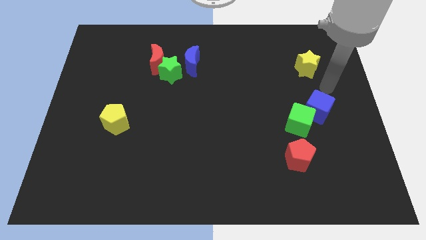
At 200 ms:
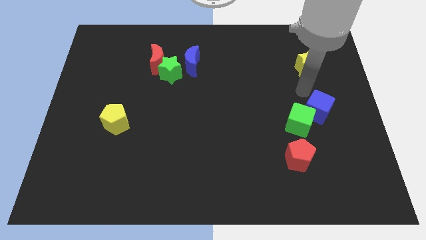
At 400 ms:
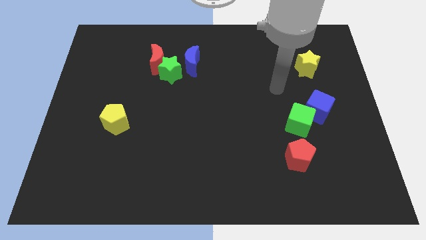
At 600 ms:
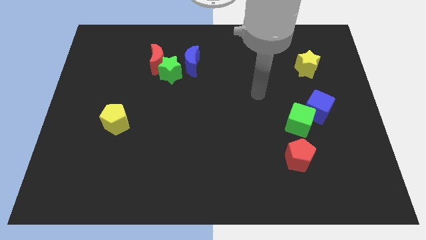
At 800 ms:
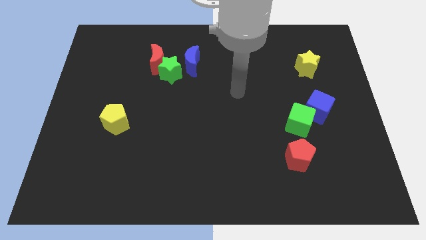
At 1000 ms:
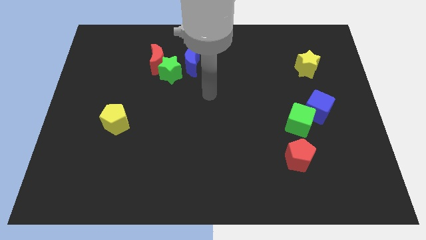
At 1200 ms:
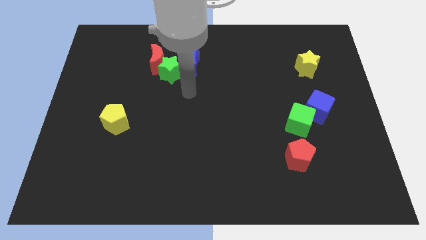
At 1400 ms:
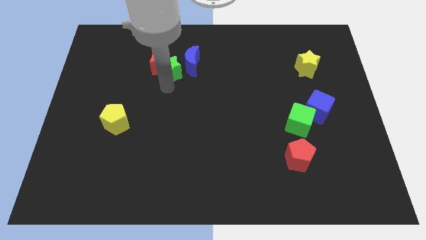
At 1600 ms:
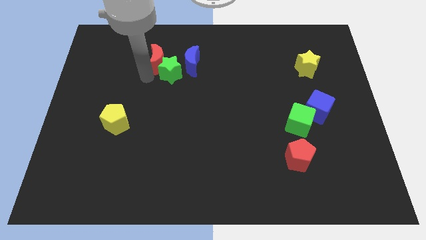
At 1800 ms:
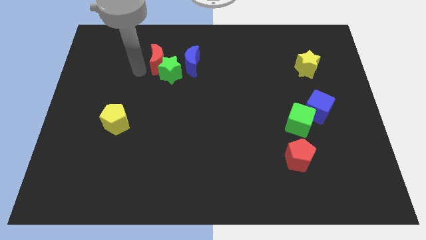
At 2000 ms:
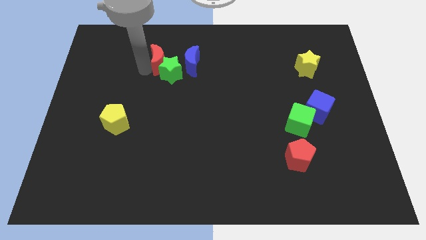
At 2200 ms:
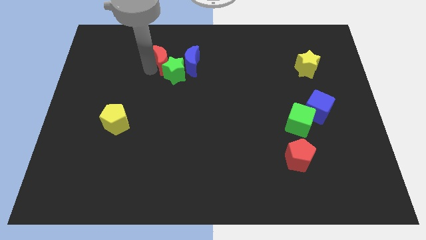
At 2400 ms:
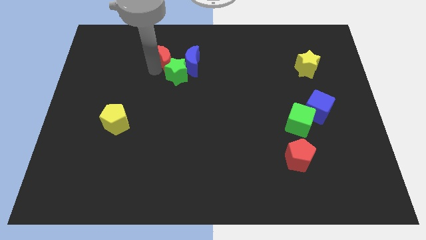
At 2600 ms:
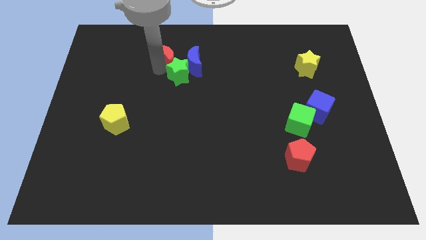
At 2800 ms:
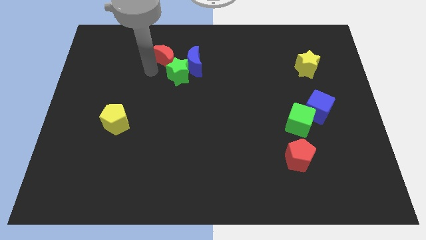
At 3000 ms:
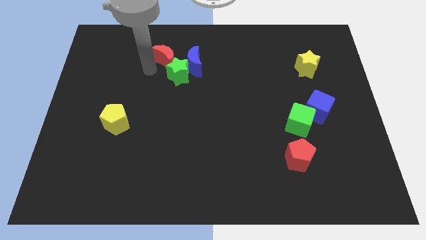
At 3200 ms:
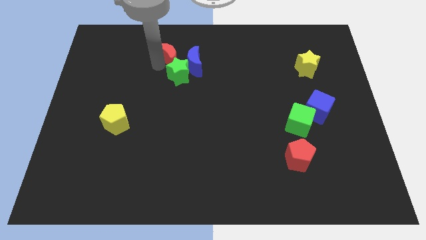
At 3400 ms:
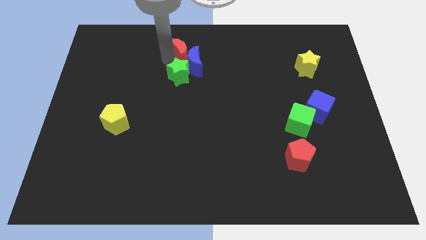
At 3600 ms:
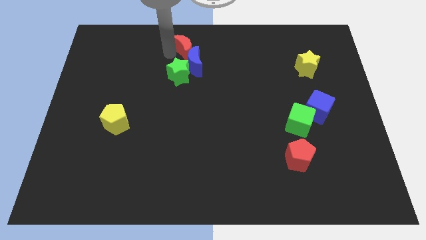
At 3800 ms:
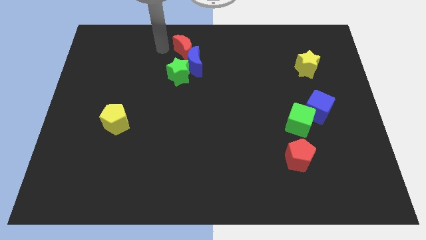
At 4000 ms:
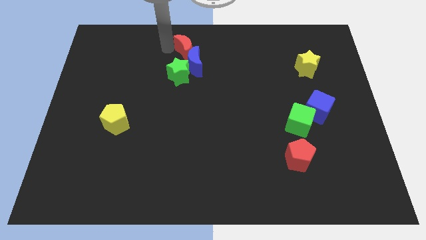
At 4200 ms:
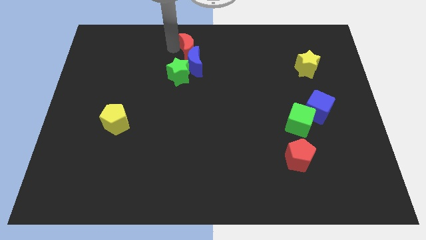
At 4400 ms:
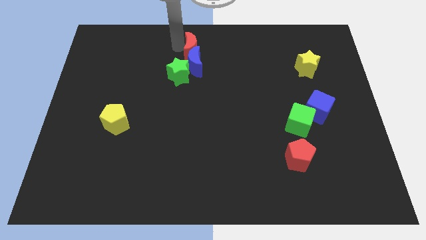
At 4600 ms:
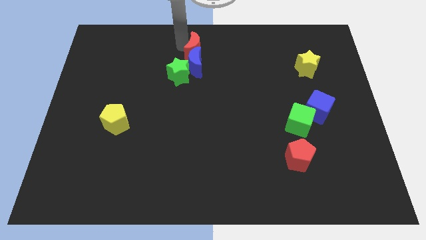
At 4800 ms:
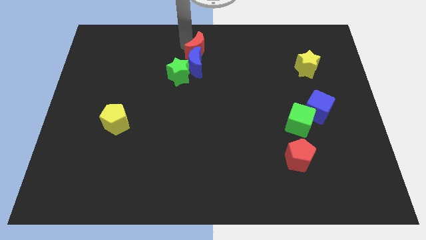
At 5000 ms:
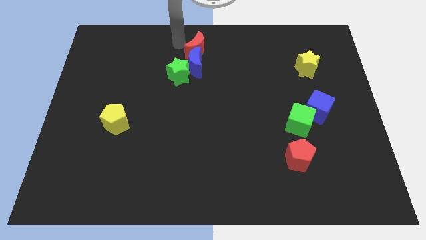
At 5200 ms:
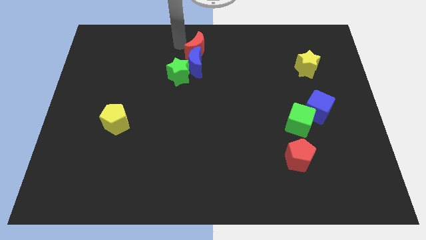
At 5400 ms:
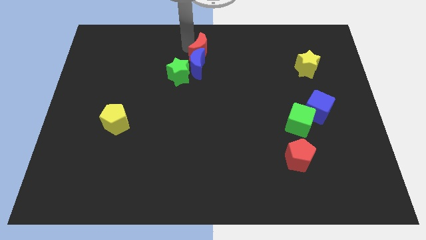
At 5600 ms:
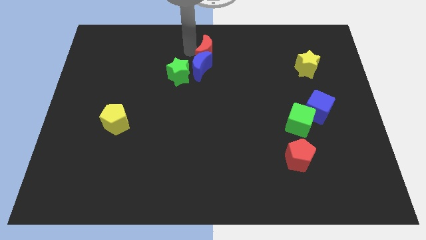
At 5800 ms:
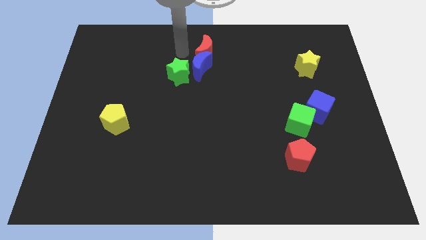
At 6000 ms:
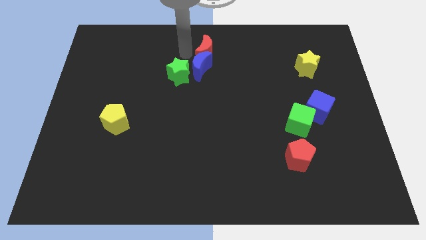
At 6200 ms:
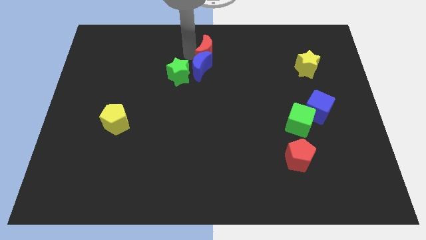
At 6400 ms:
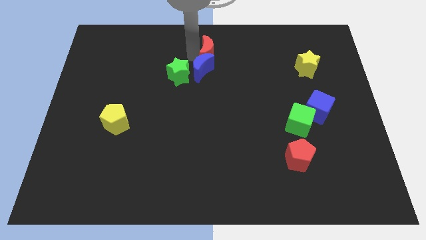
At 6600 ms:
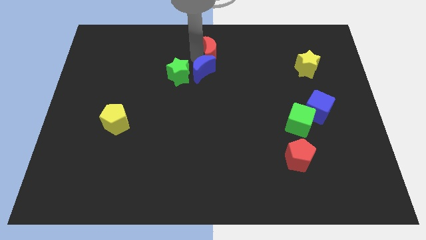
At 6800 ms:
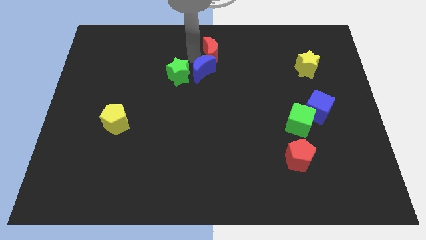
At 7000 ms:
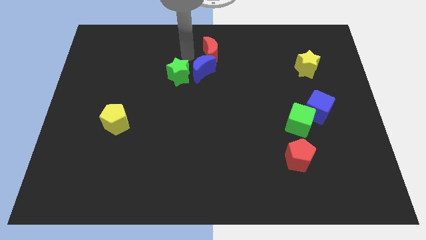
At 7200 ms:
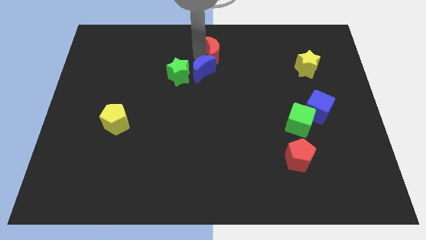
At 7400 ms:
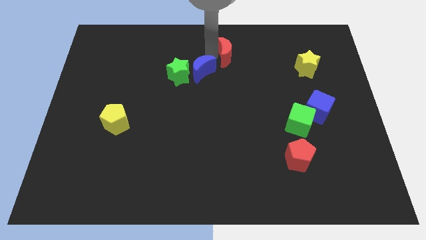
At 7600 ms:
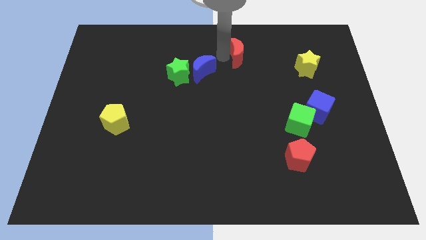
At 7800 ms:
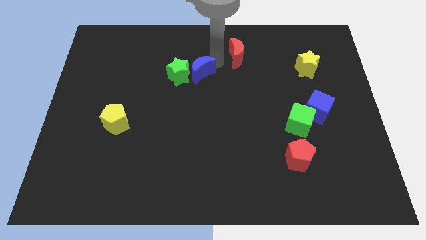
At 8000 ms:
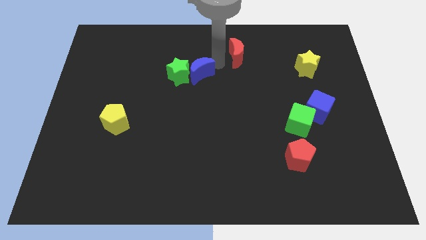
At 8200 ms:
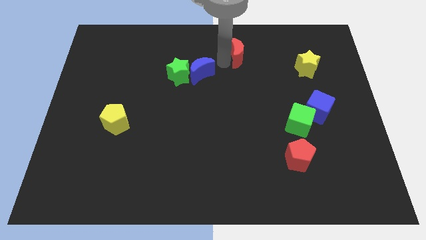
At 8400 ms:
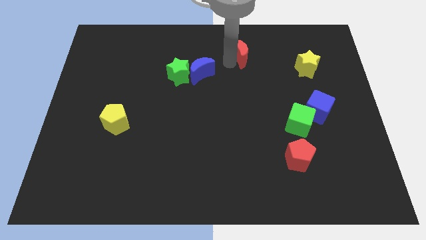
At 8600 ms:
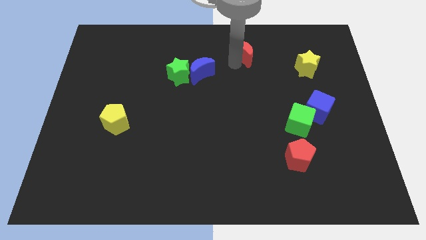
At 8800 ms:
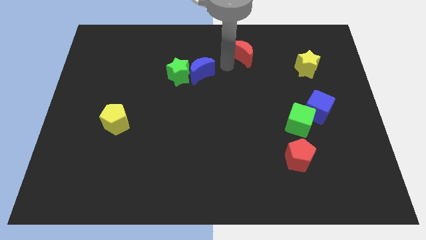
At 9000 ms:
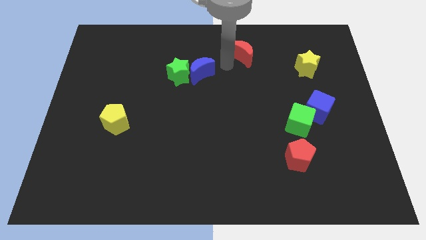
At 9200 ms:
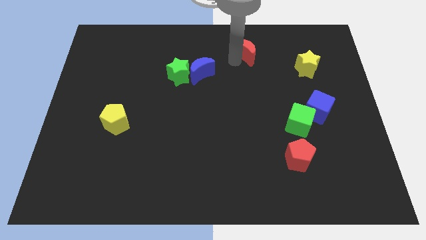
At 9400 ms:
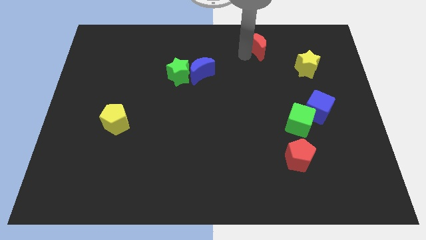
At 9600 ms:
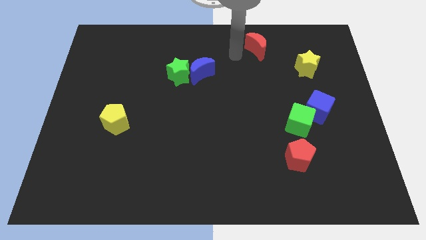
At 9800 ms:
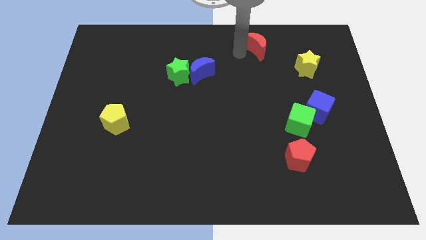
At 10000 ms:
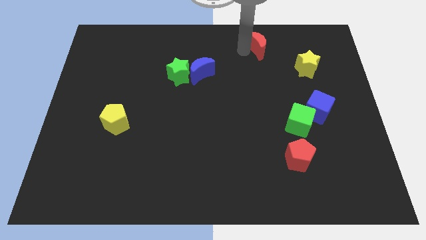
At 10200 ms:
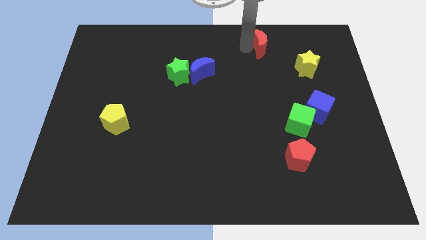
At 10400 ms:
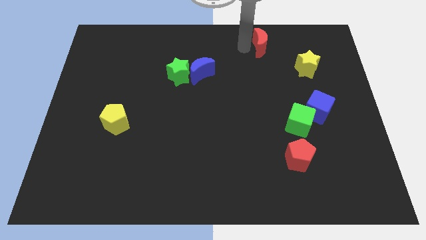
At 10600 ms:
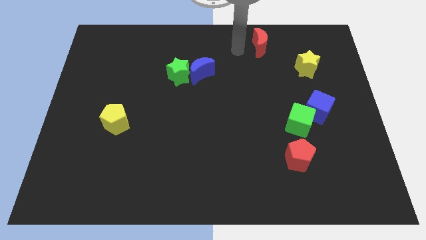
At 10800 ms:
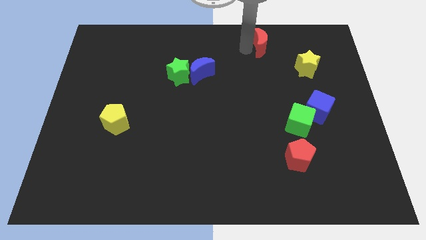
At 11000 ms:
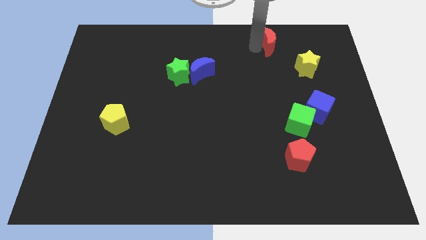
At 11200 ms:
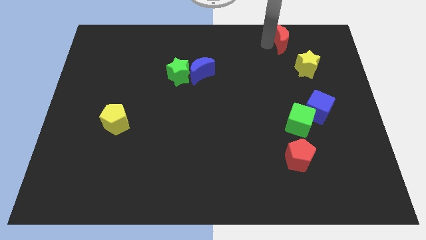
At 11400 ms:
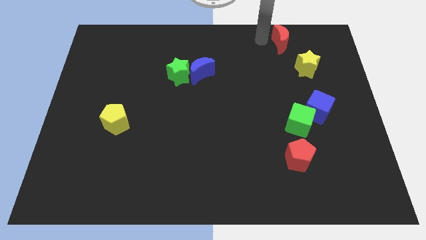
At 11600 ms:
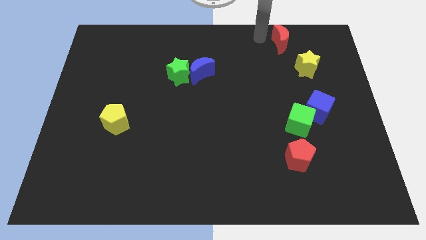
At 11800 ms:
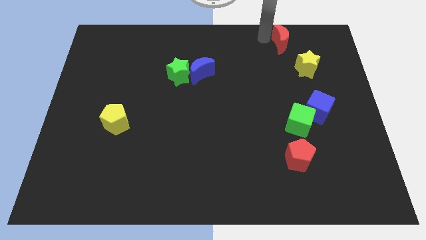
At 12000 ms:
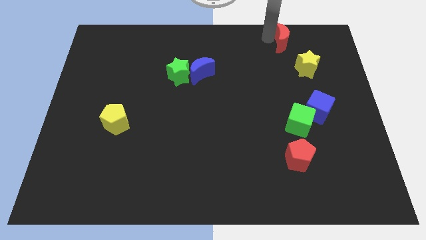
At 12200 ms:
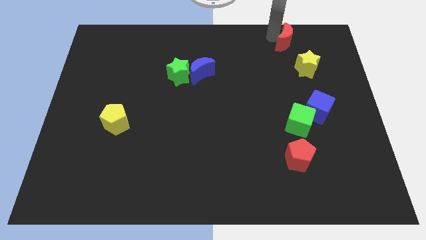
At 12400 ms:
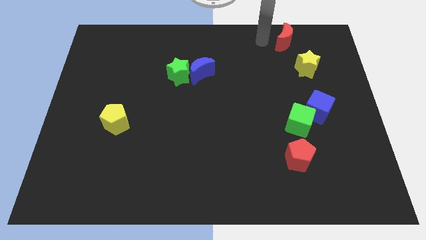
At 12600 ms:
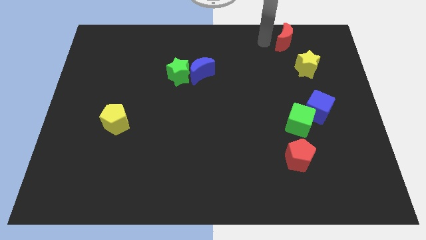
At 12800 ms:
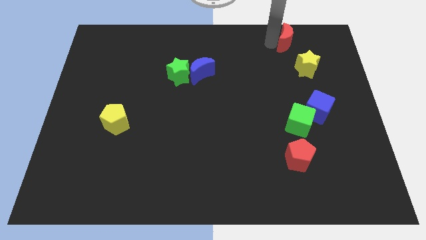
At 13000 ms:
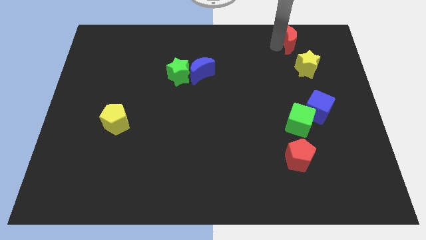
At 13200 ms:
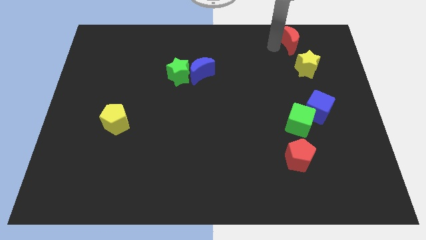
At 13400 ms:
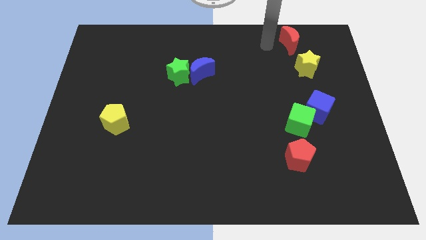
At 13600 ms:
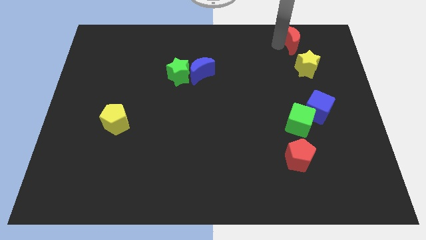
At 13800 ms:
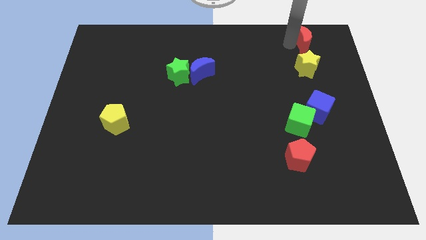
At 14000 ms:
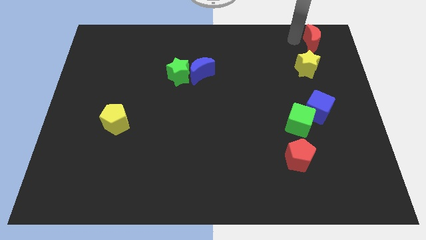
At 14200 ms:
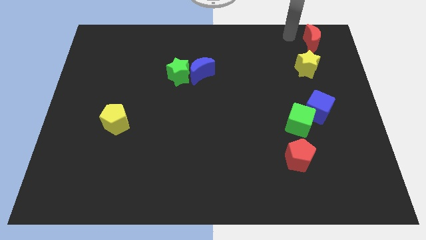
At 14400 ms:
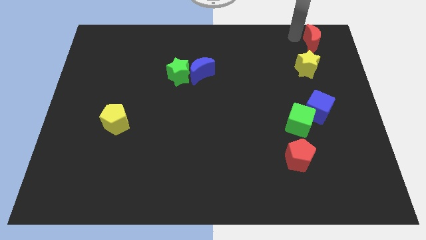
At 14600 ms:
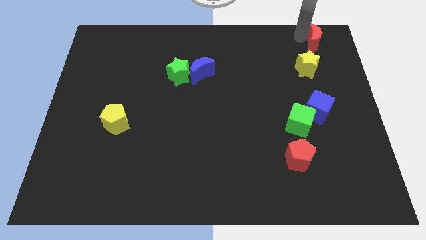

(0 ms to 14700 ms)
slide the red moon to the top right

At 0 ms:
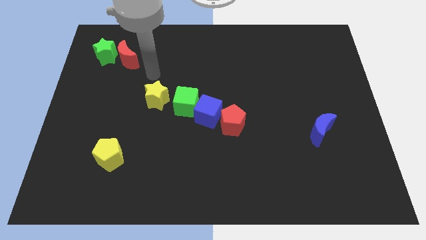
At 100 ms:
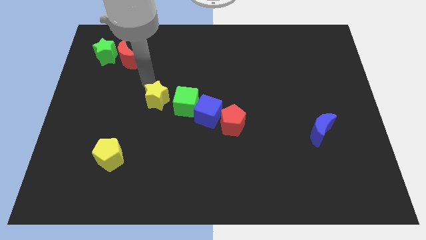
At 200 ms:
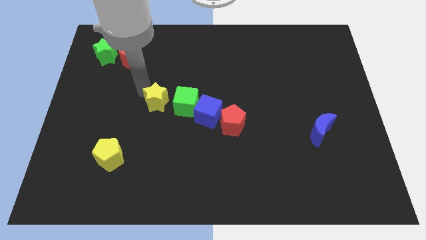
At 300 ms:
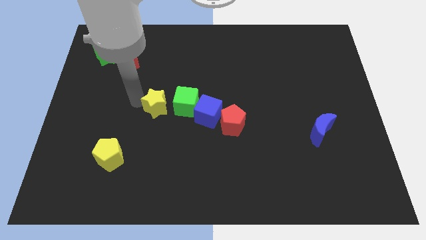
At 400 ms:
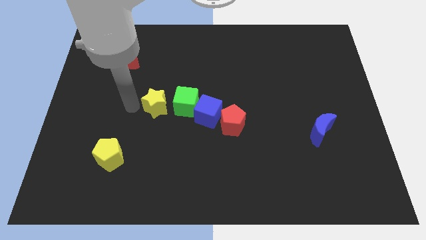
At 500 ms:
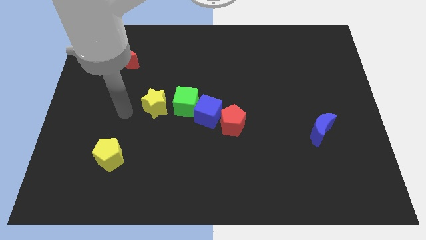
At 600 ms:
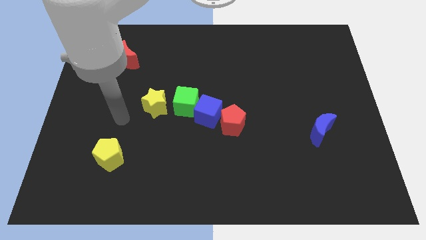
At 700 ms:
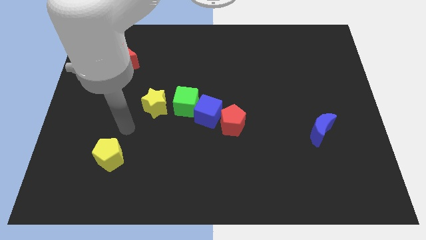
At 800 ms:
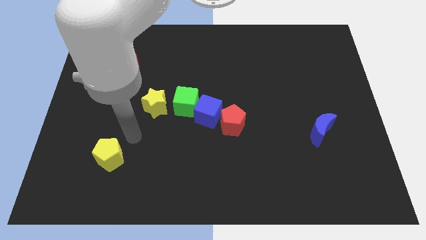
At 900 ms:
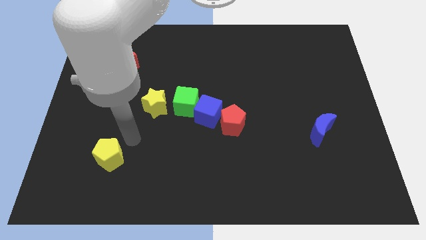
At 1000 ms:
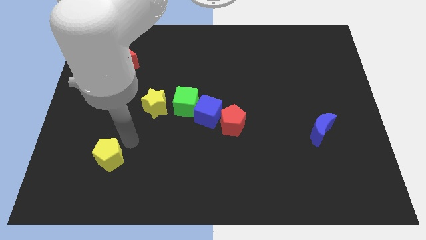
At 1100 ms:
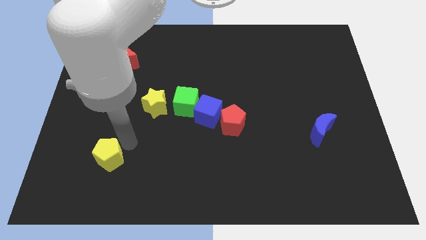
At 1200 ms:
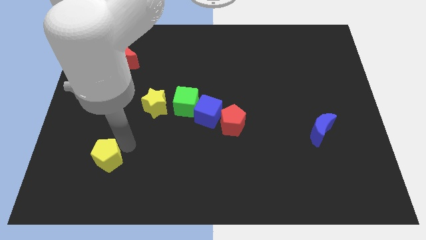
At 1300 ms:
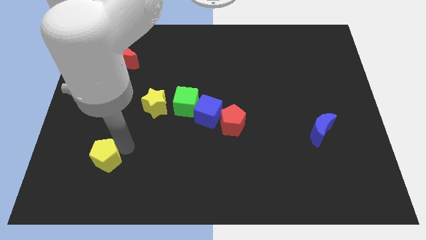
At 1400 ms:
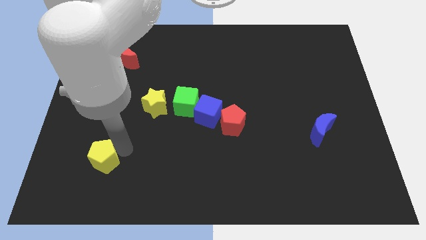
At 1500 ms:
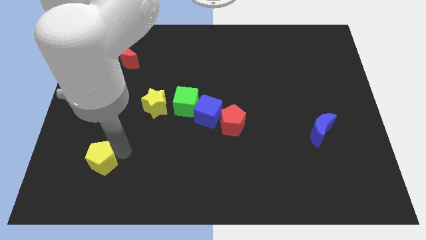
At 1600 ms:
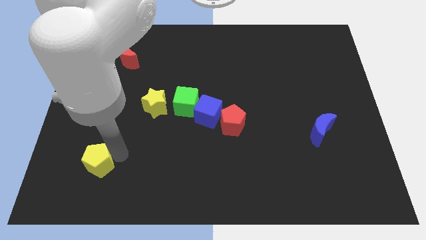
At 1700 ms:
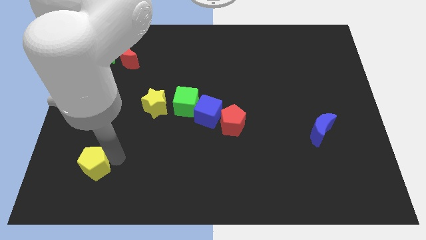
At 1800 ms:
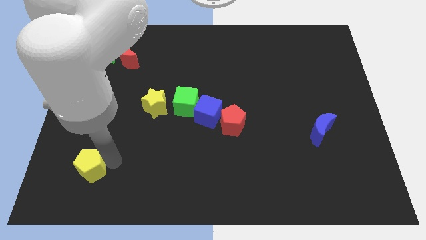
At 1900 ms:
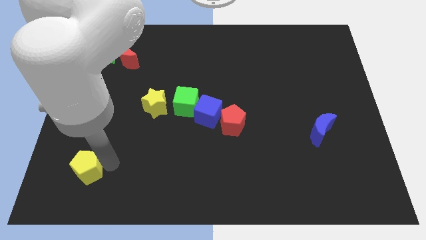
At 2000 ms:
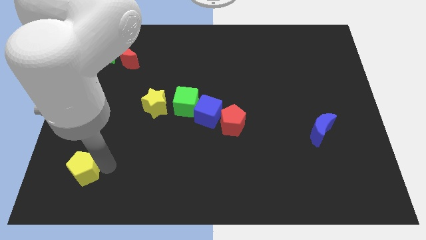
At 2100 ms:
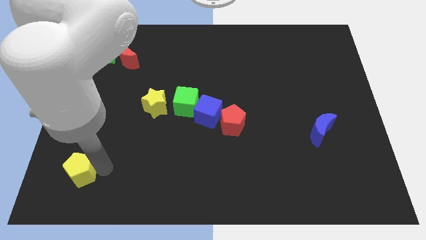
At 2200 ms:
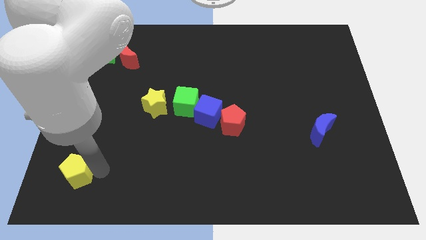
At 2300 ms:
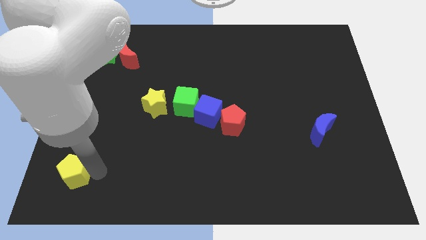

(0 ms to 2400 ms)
move the yellow pentagon to the lower left corner
